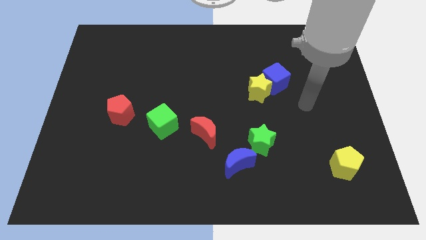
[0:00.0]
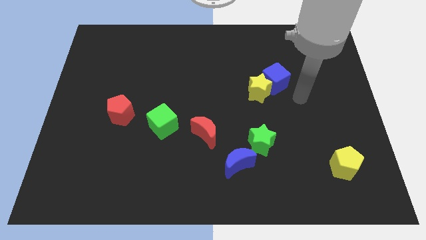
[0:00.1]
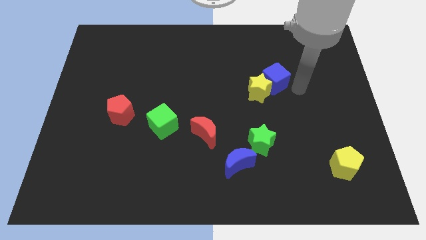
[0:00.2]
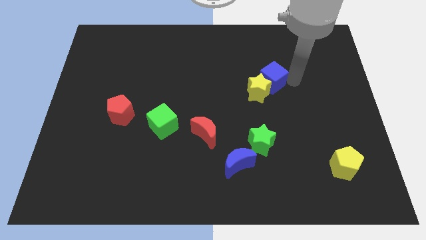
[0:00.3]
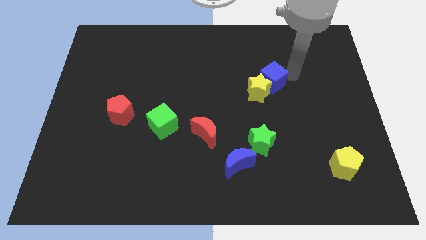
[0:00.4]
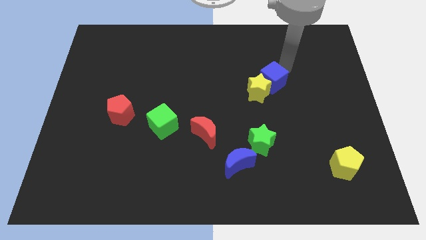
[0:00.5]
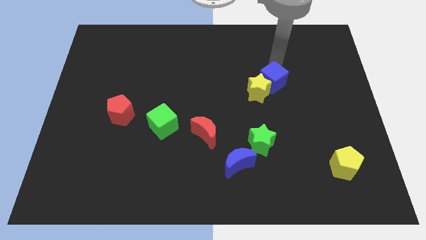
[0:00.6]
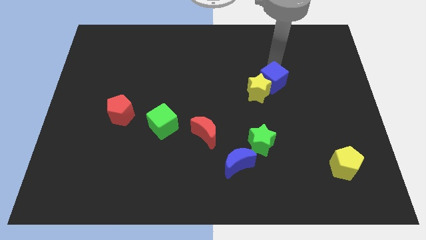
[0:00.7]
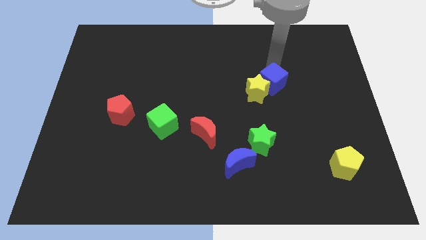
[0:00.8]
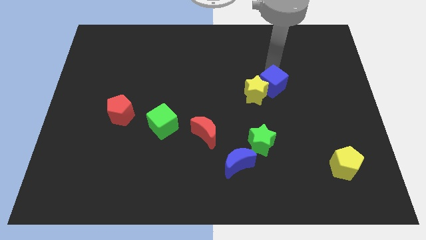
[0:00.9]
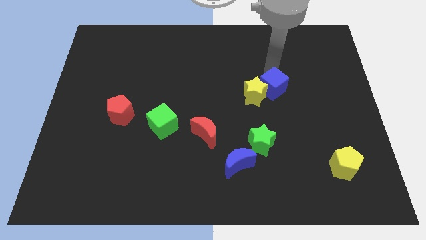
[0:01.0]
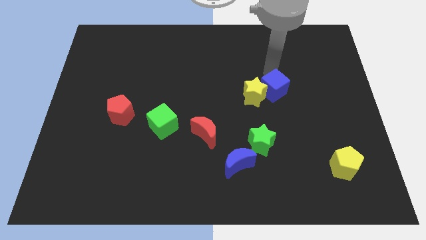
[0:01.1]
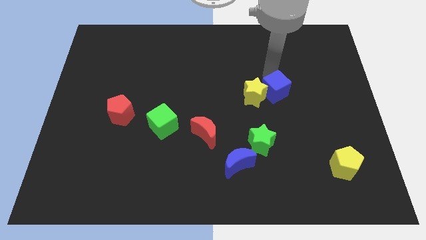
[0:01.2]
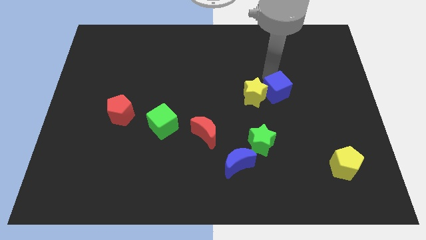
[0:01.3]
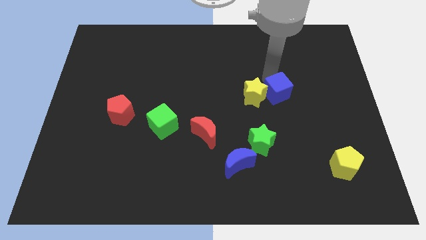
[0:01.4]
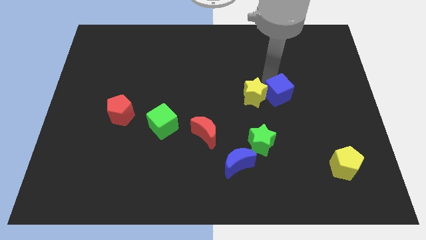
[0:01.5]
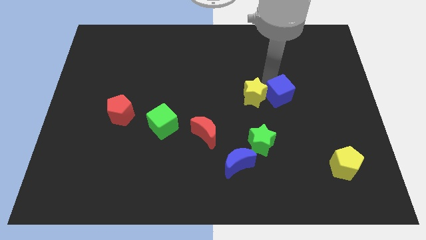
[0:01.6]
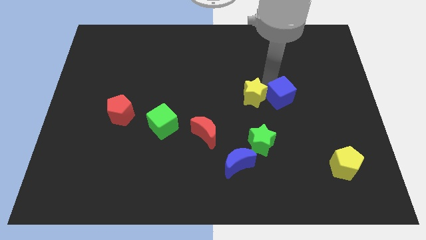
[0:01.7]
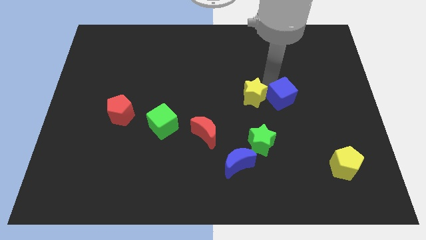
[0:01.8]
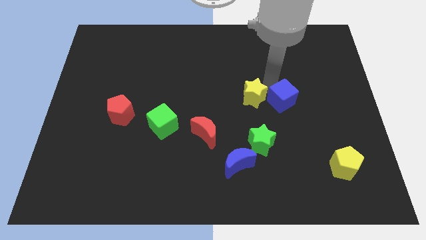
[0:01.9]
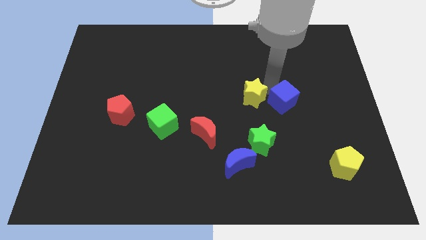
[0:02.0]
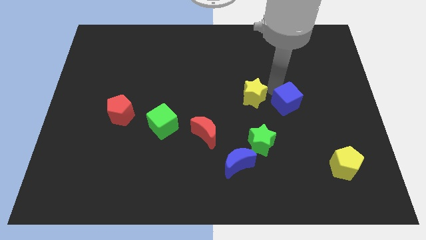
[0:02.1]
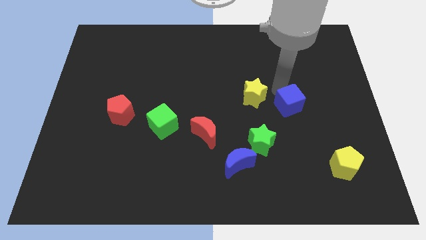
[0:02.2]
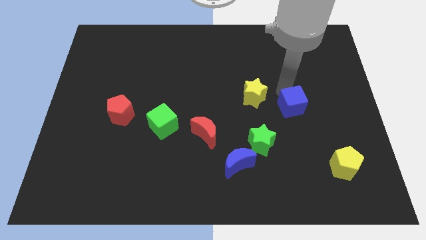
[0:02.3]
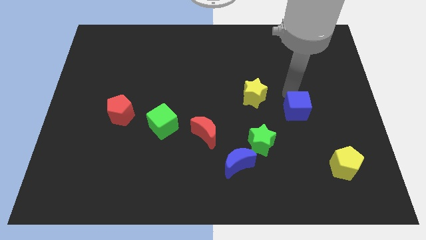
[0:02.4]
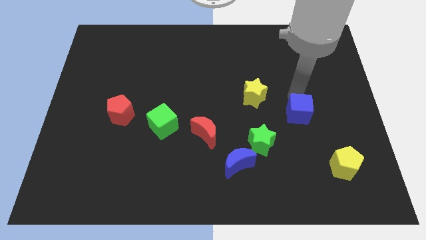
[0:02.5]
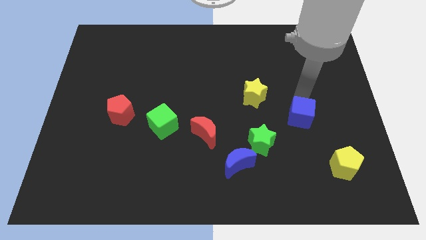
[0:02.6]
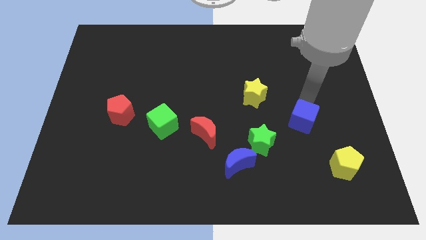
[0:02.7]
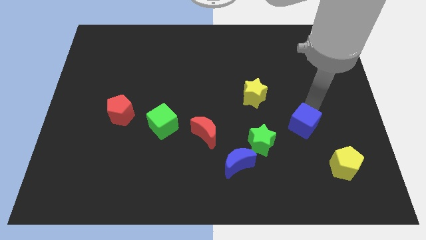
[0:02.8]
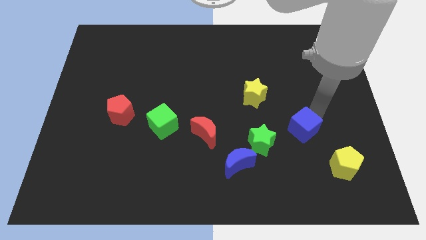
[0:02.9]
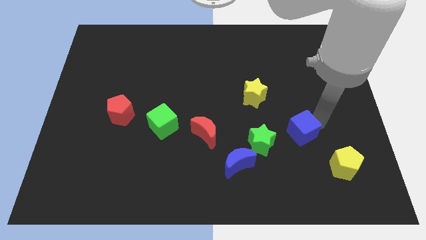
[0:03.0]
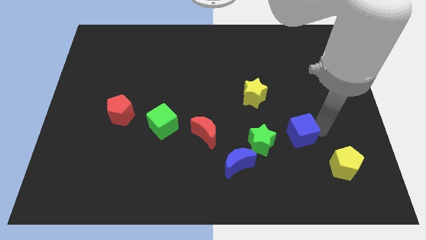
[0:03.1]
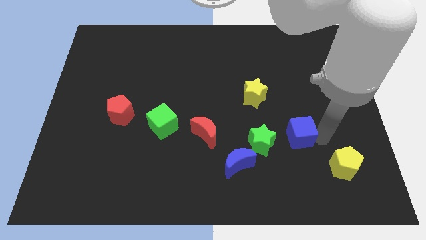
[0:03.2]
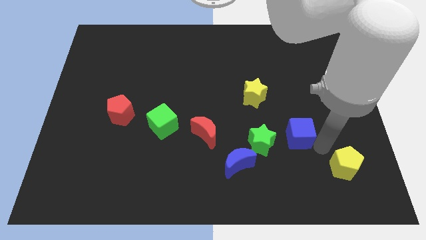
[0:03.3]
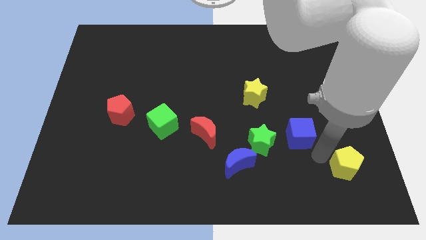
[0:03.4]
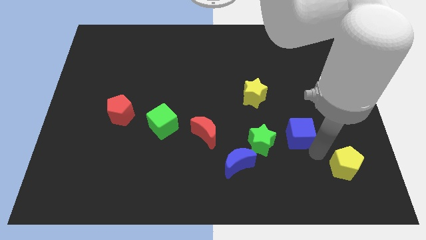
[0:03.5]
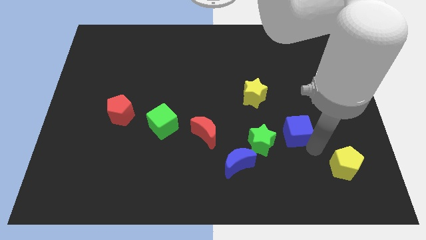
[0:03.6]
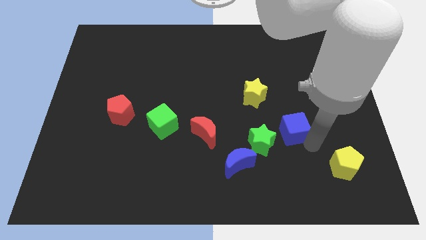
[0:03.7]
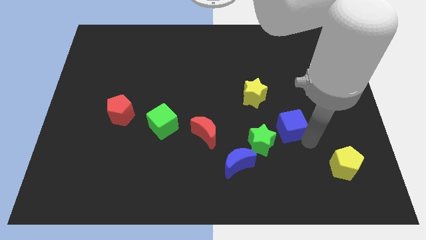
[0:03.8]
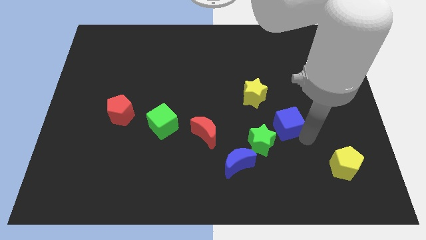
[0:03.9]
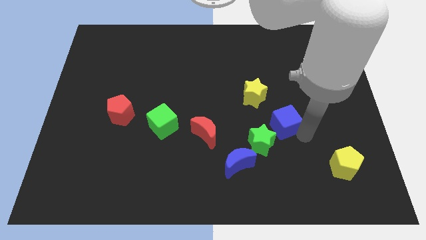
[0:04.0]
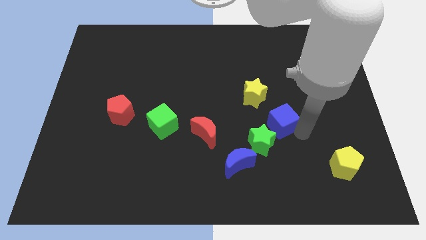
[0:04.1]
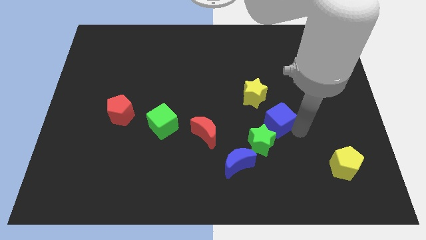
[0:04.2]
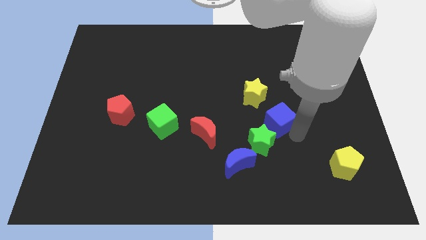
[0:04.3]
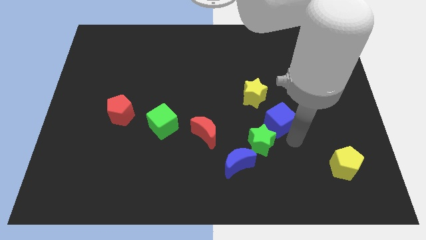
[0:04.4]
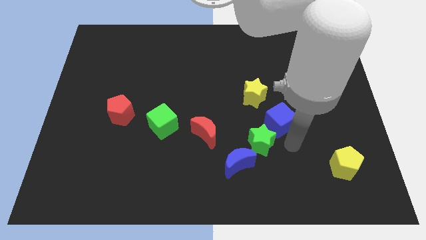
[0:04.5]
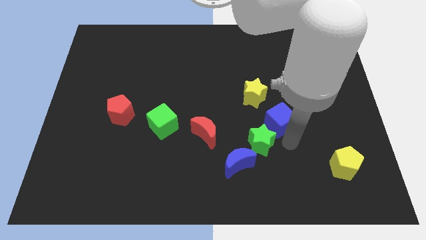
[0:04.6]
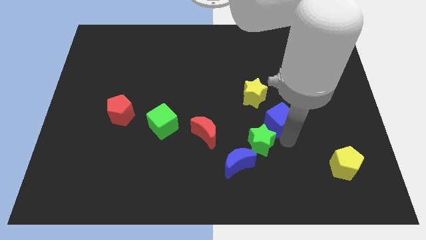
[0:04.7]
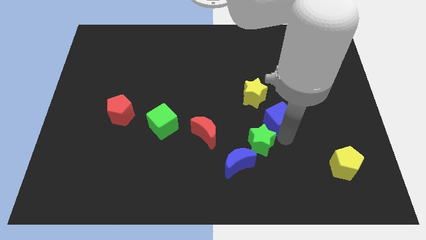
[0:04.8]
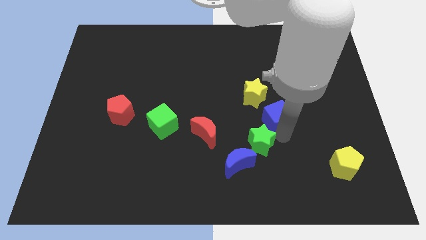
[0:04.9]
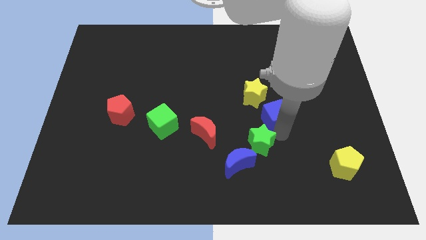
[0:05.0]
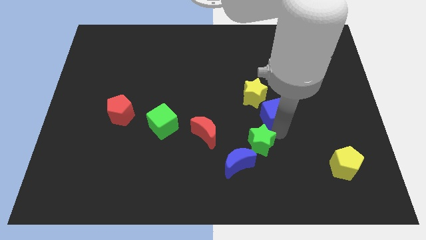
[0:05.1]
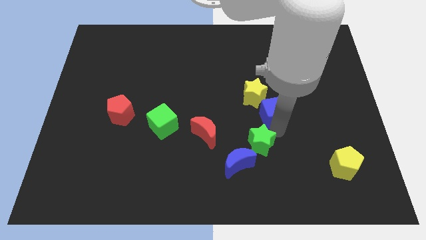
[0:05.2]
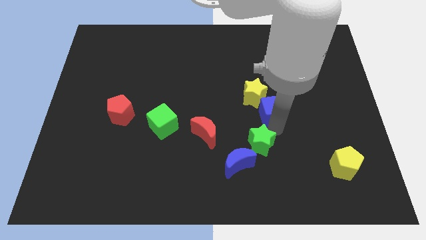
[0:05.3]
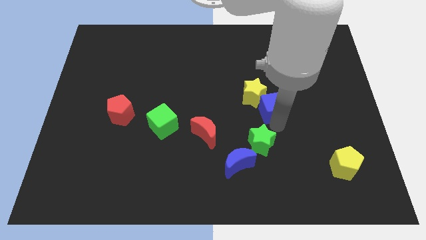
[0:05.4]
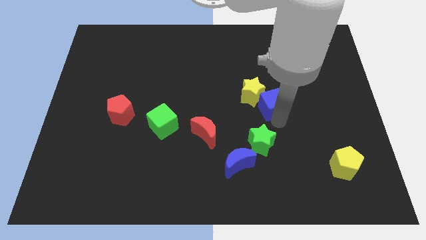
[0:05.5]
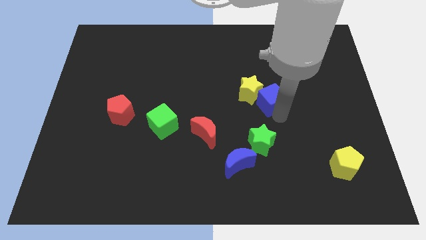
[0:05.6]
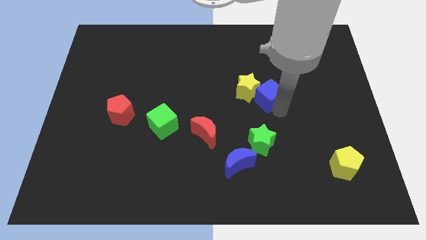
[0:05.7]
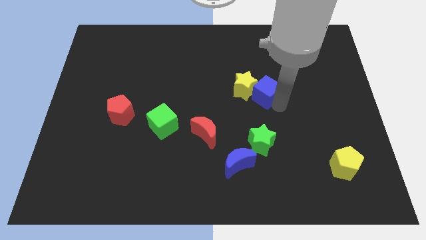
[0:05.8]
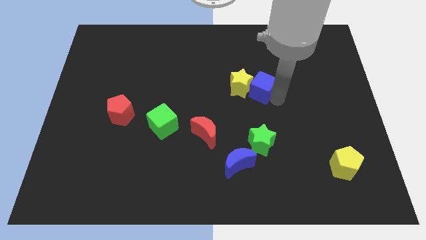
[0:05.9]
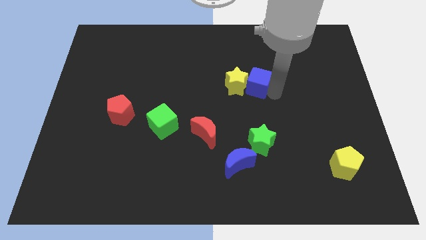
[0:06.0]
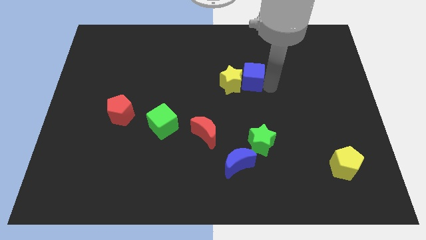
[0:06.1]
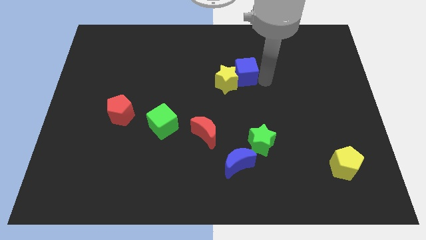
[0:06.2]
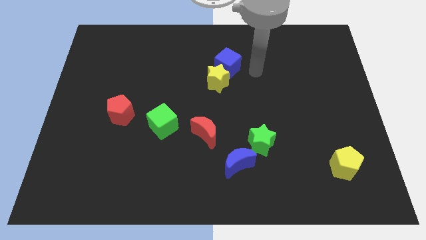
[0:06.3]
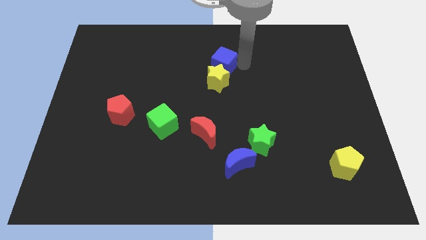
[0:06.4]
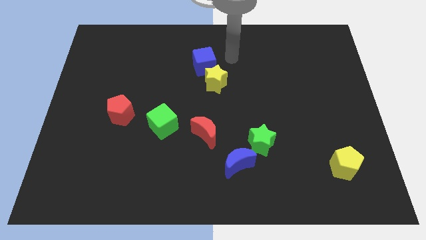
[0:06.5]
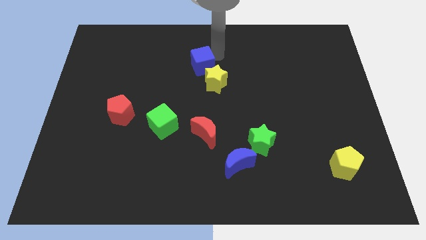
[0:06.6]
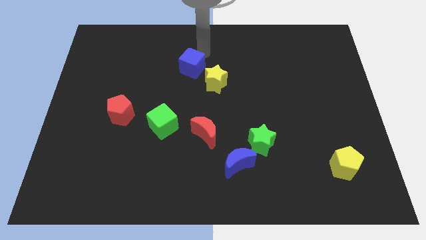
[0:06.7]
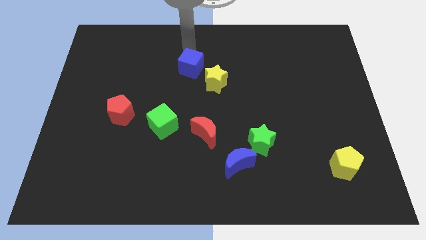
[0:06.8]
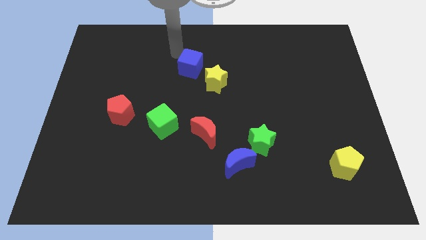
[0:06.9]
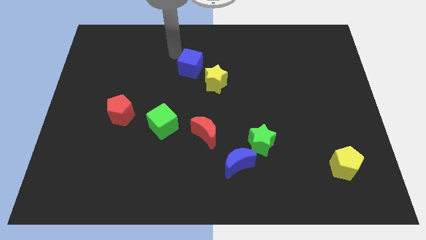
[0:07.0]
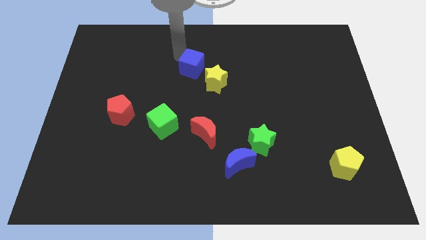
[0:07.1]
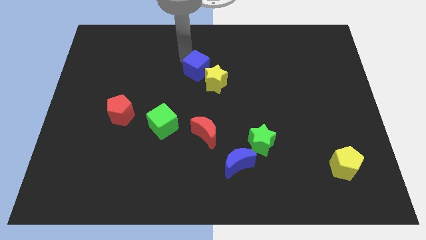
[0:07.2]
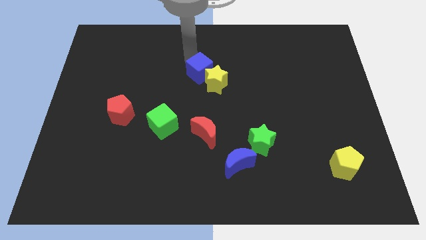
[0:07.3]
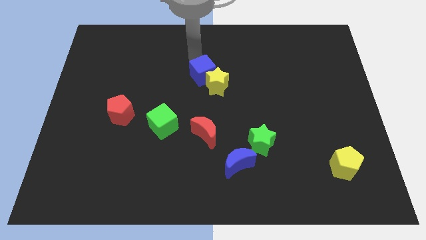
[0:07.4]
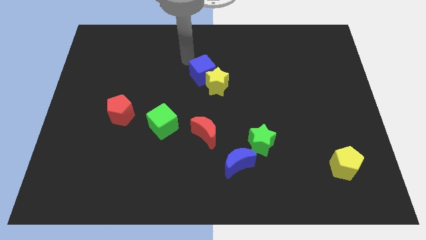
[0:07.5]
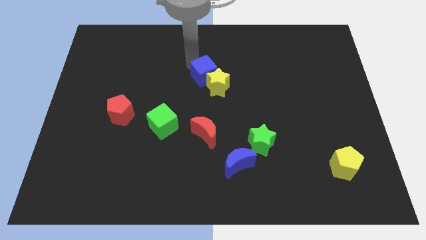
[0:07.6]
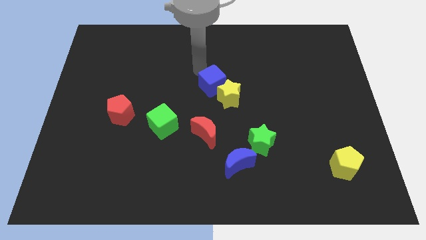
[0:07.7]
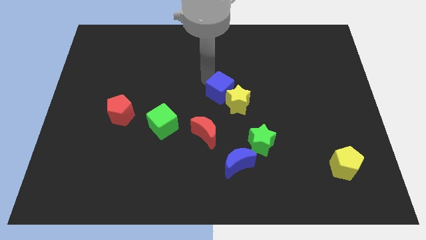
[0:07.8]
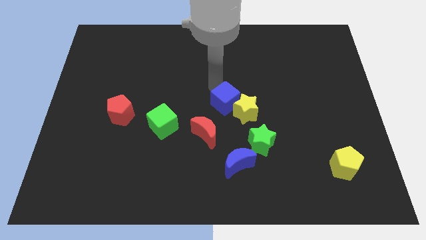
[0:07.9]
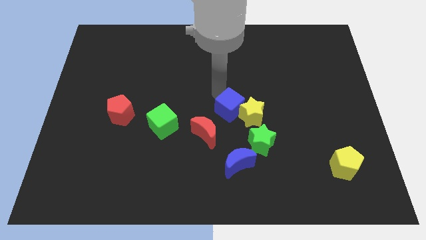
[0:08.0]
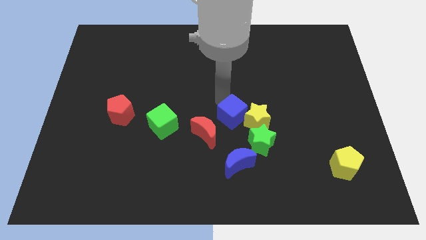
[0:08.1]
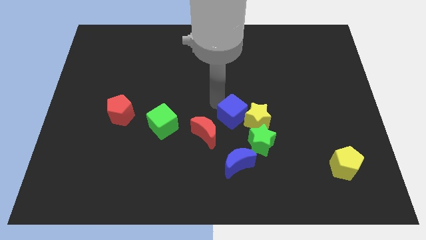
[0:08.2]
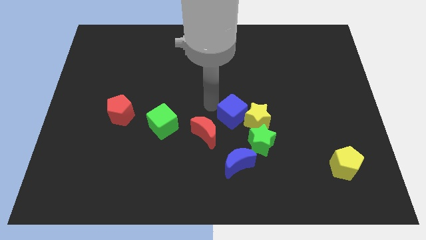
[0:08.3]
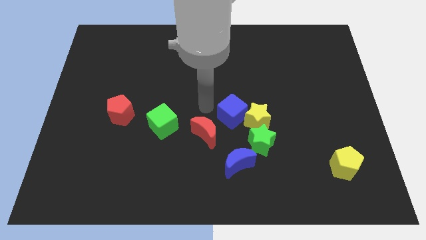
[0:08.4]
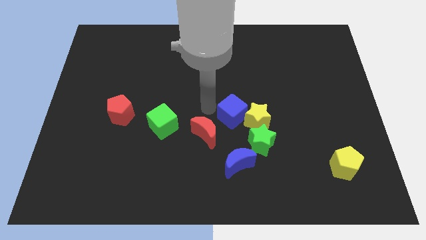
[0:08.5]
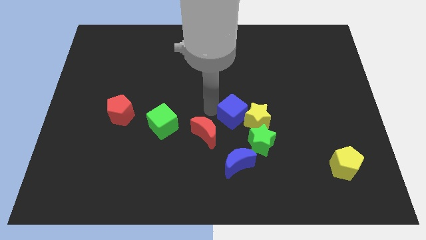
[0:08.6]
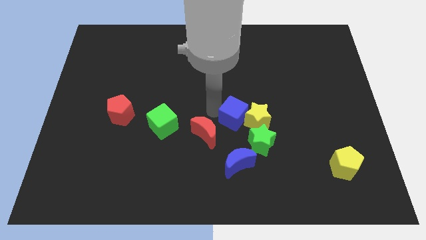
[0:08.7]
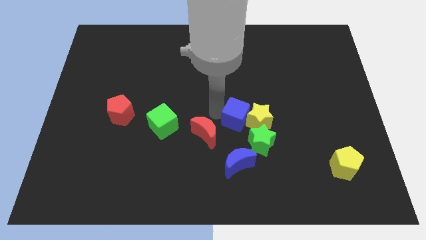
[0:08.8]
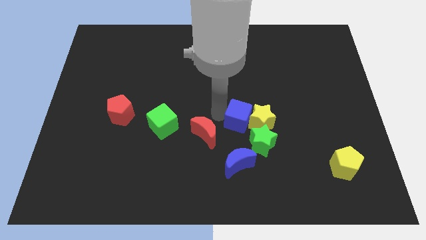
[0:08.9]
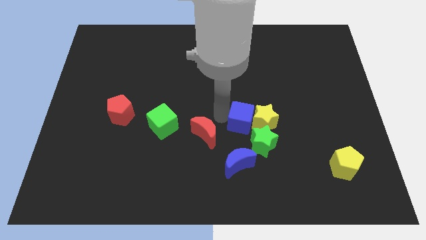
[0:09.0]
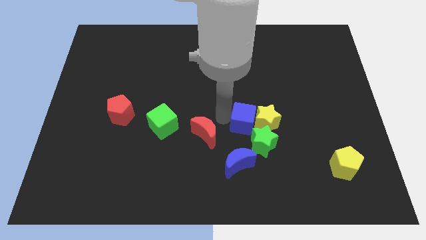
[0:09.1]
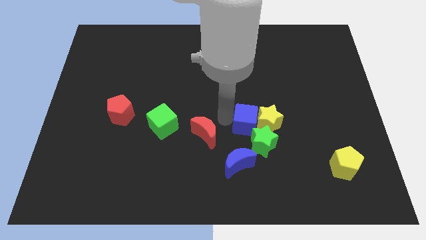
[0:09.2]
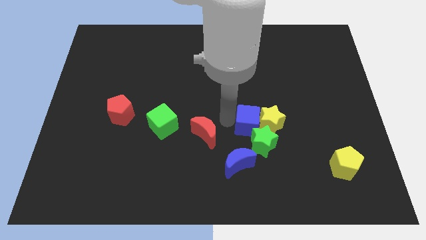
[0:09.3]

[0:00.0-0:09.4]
push the blue cube towards the green star
